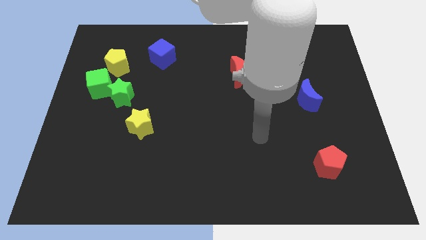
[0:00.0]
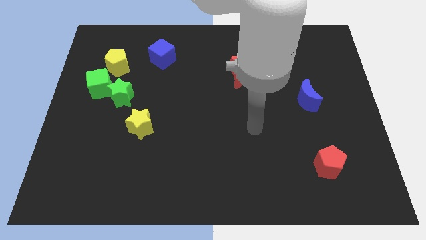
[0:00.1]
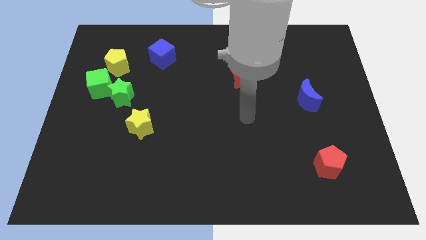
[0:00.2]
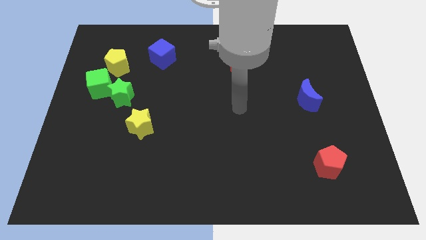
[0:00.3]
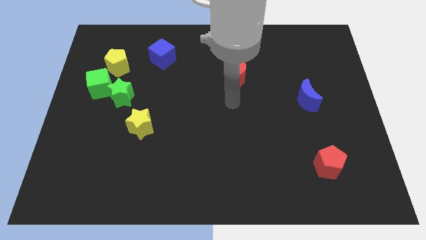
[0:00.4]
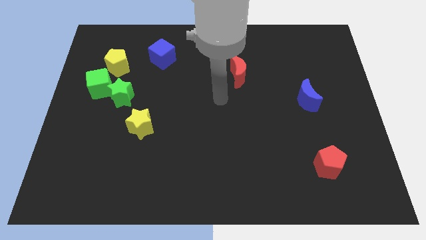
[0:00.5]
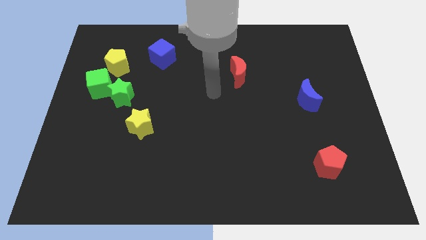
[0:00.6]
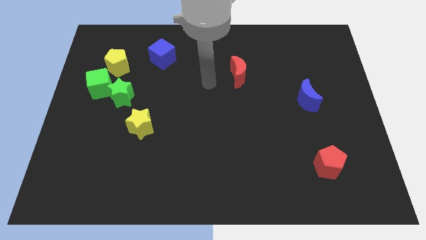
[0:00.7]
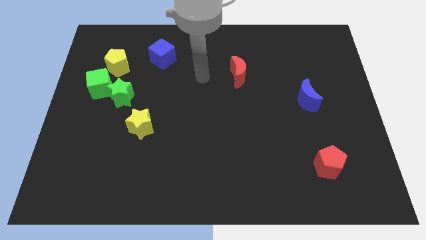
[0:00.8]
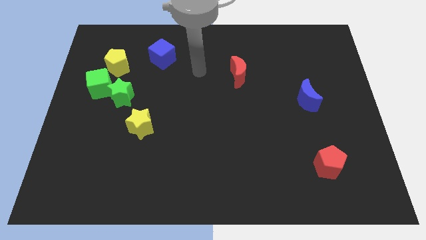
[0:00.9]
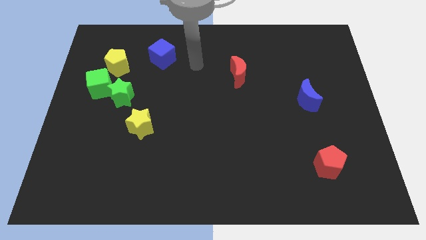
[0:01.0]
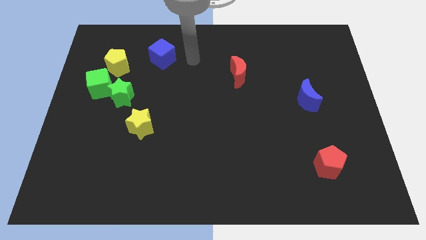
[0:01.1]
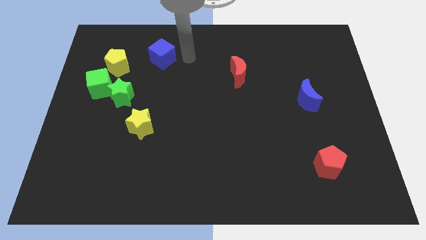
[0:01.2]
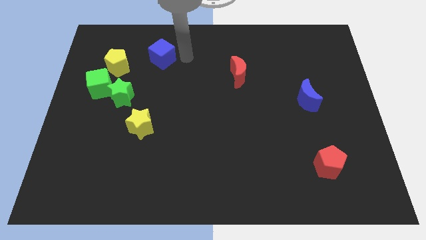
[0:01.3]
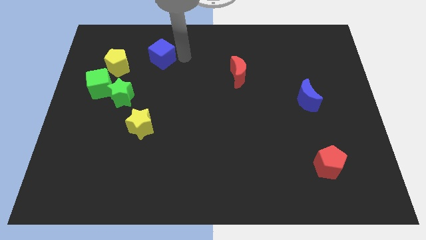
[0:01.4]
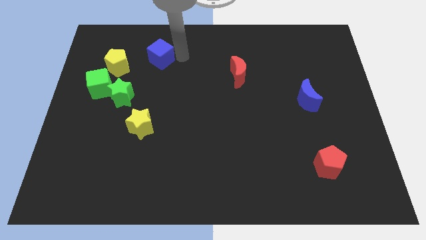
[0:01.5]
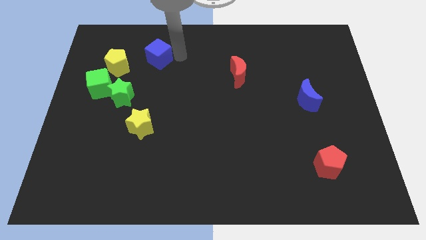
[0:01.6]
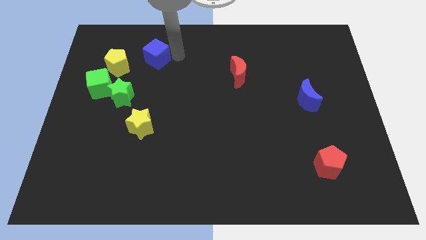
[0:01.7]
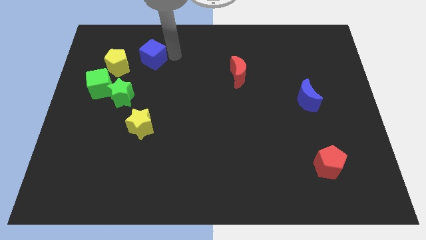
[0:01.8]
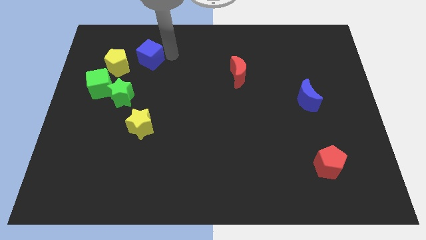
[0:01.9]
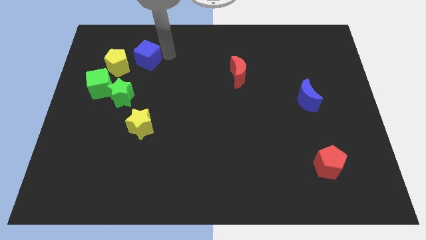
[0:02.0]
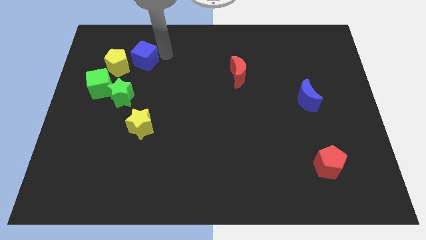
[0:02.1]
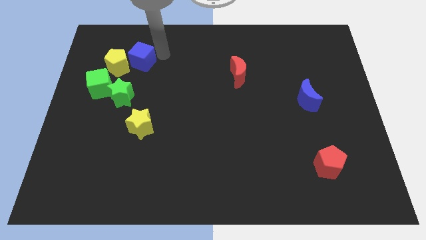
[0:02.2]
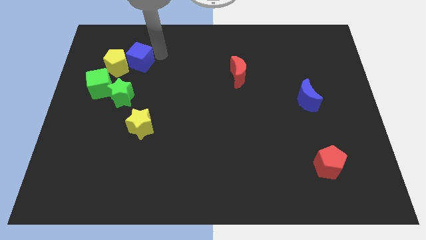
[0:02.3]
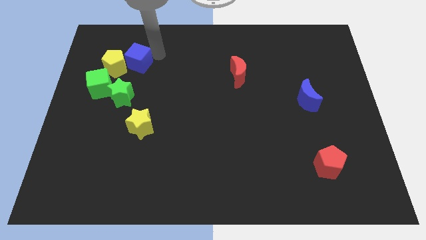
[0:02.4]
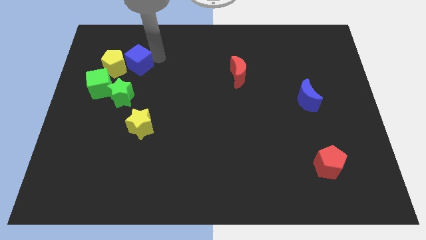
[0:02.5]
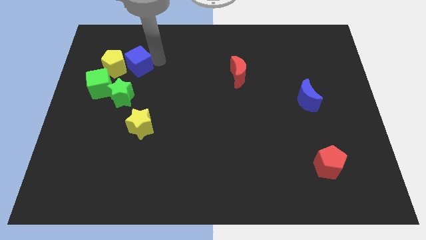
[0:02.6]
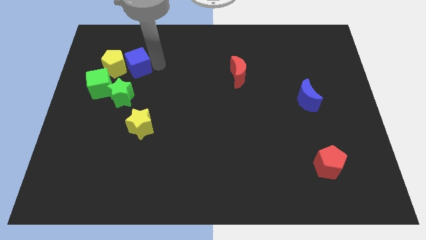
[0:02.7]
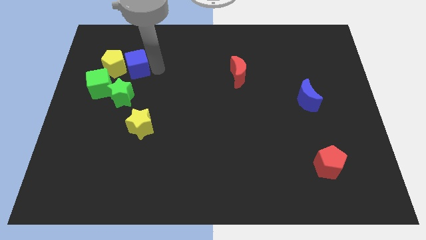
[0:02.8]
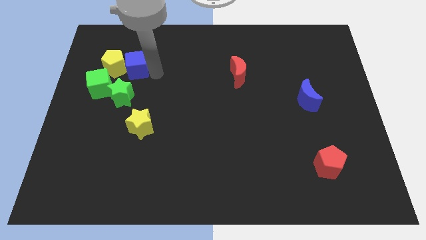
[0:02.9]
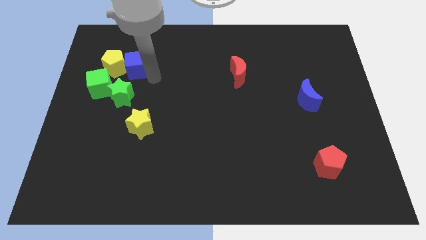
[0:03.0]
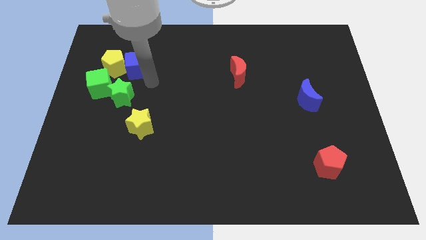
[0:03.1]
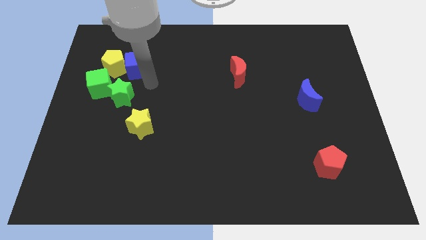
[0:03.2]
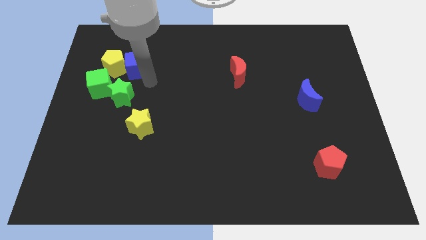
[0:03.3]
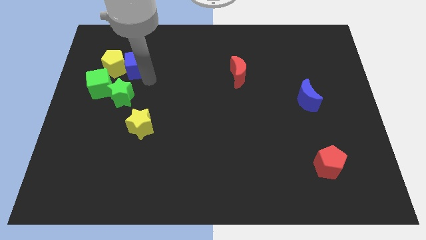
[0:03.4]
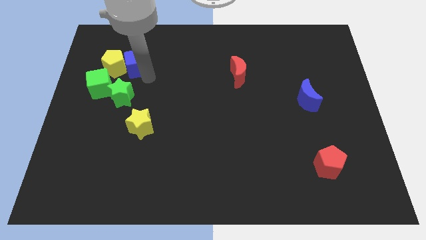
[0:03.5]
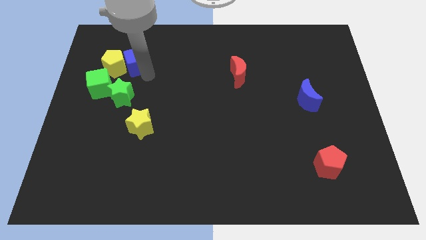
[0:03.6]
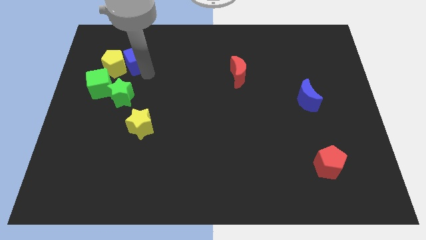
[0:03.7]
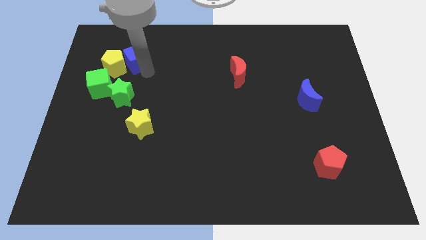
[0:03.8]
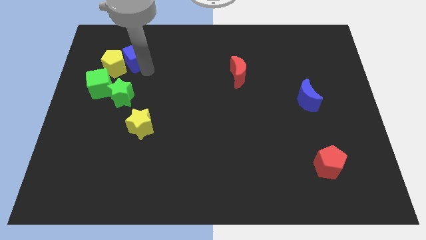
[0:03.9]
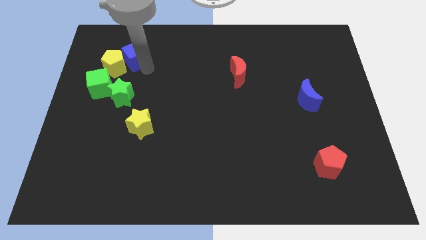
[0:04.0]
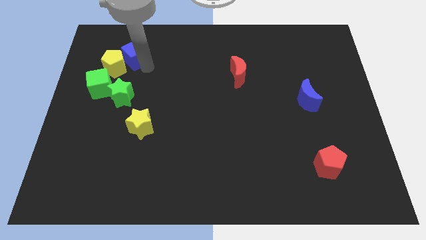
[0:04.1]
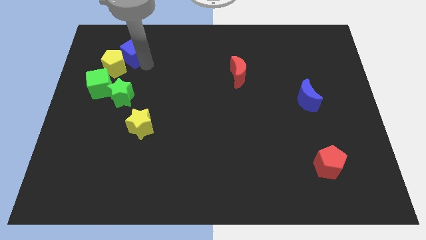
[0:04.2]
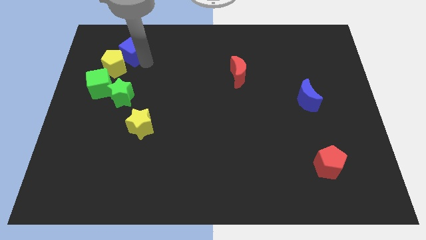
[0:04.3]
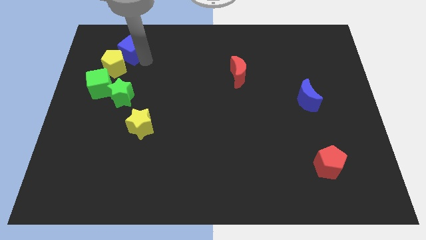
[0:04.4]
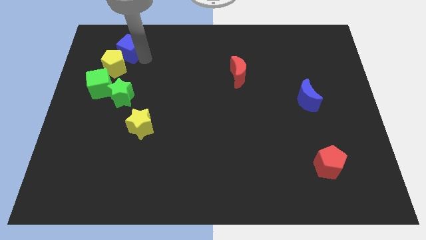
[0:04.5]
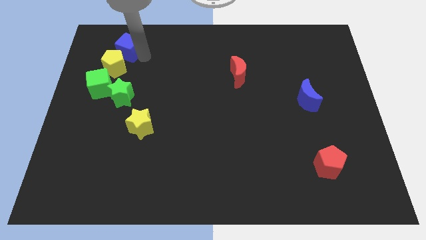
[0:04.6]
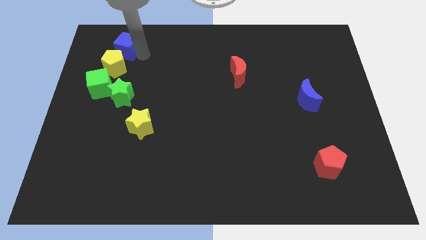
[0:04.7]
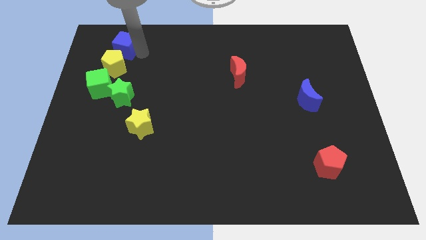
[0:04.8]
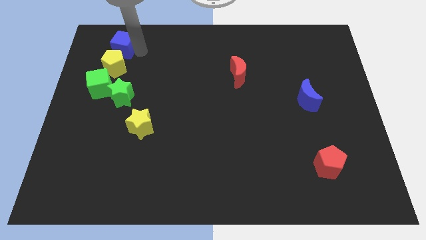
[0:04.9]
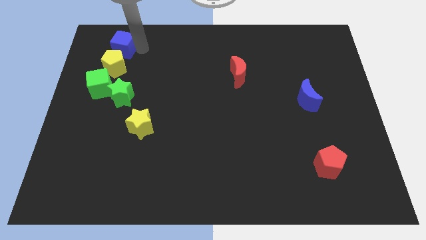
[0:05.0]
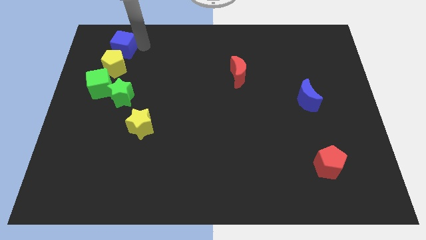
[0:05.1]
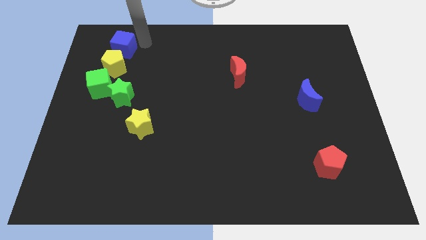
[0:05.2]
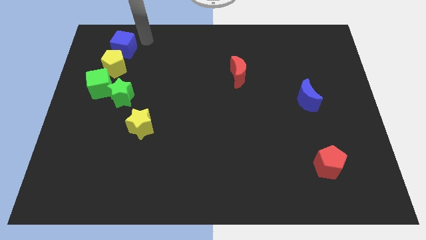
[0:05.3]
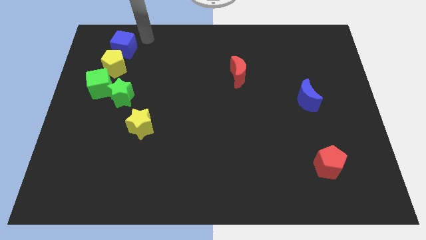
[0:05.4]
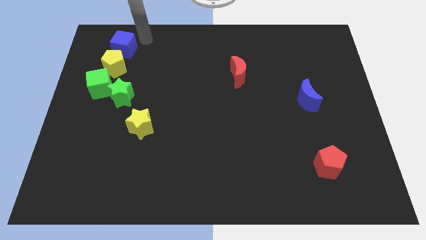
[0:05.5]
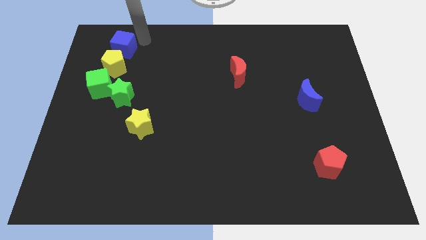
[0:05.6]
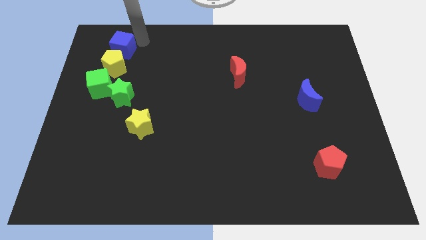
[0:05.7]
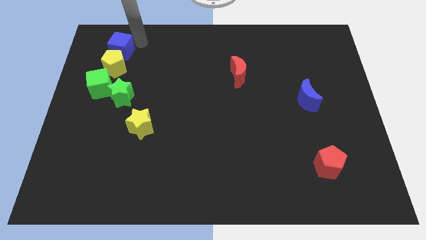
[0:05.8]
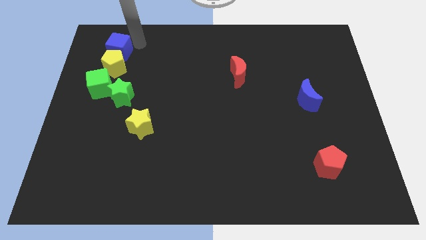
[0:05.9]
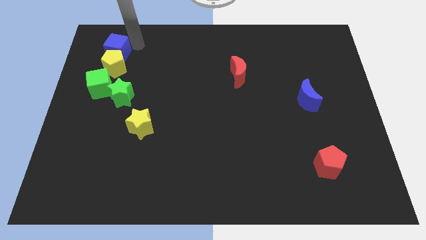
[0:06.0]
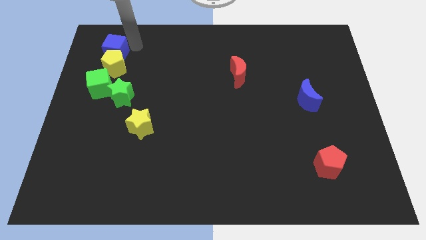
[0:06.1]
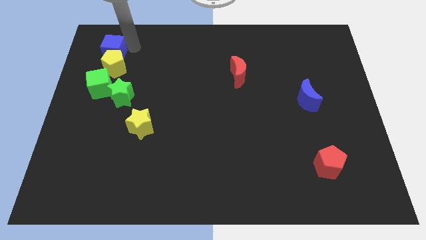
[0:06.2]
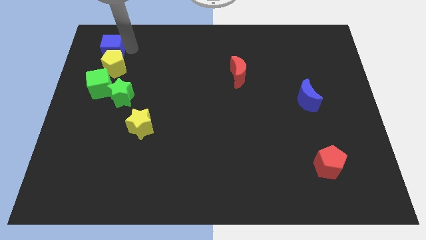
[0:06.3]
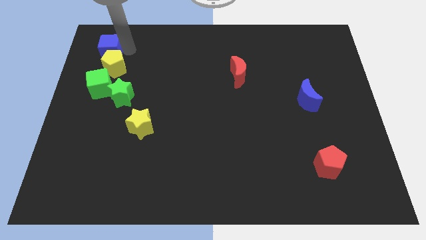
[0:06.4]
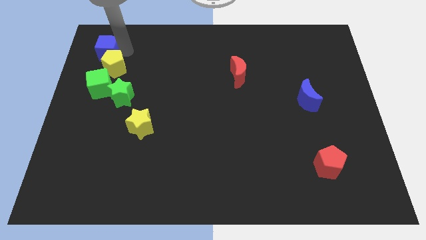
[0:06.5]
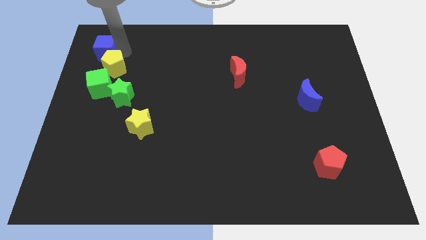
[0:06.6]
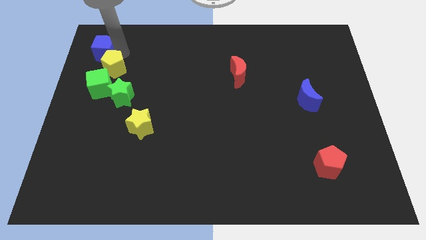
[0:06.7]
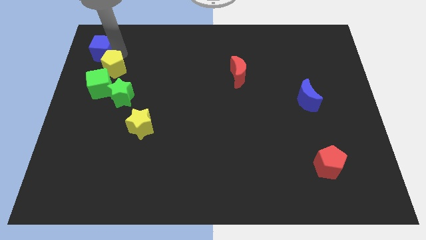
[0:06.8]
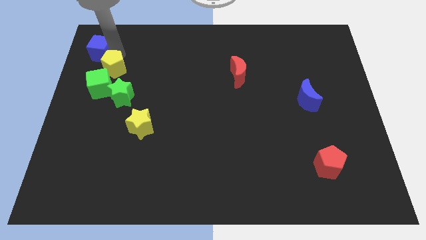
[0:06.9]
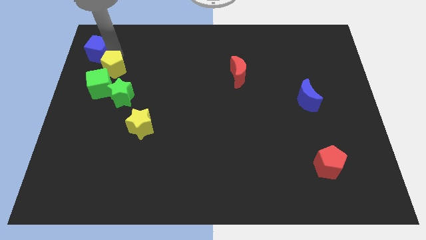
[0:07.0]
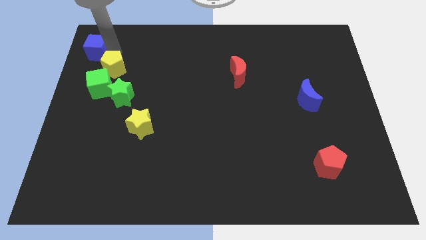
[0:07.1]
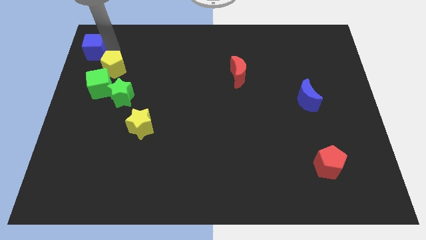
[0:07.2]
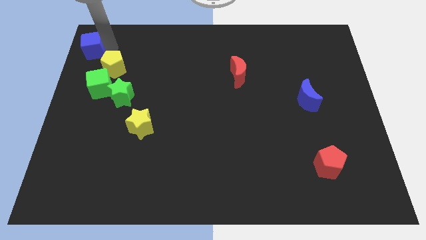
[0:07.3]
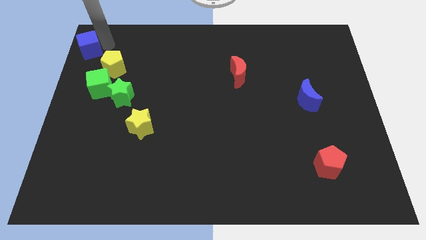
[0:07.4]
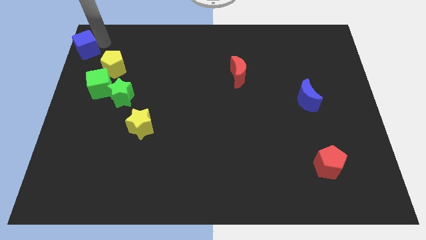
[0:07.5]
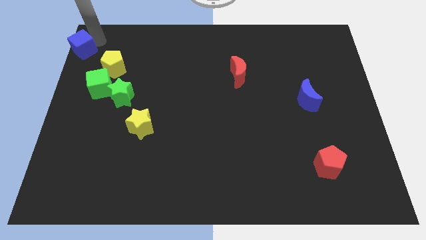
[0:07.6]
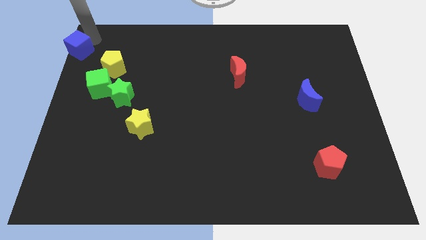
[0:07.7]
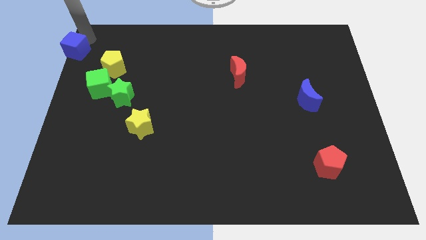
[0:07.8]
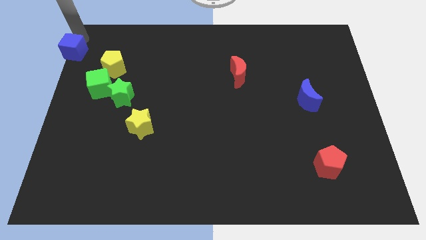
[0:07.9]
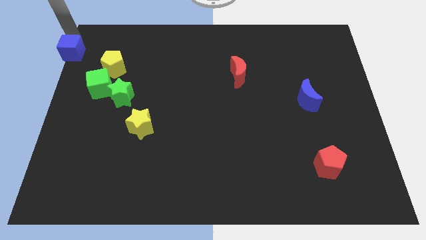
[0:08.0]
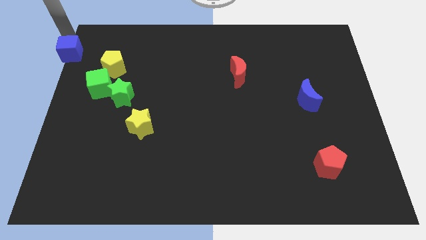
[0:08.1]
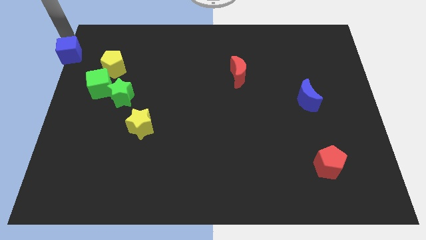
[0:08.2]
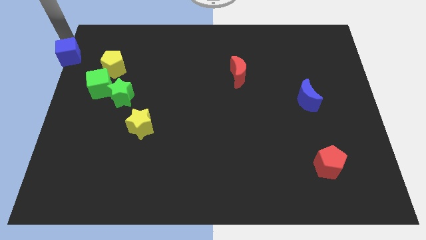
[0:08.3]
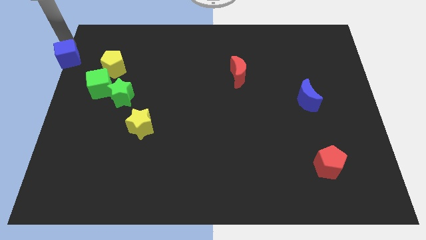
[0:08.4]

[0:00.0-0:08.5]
slide the blue cube to the left side
